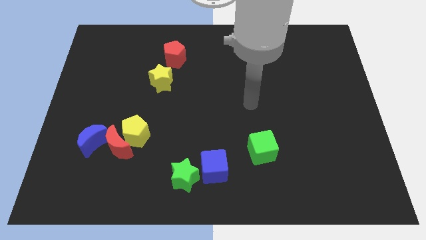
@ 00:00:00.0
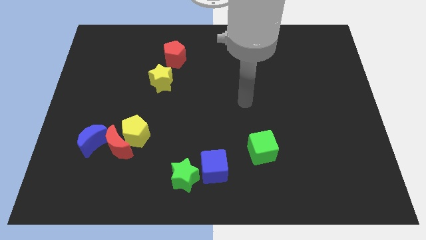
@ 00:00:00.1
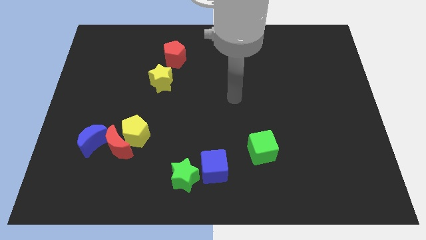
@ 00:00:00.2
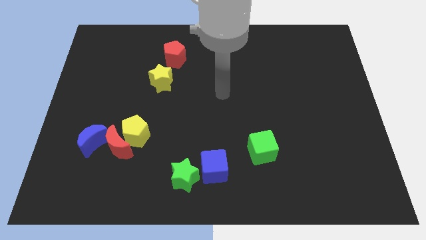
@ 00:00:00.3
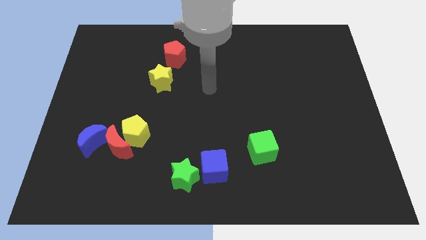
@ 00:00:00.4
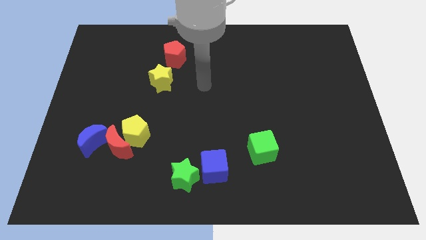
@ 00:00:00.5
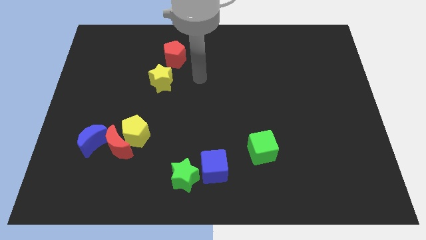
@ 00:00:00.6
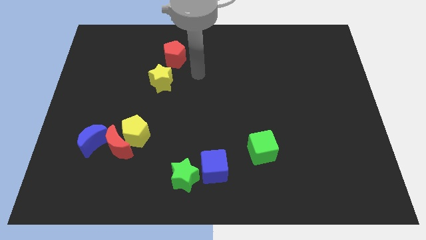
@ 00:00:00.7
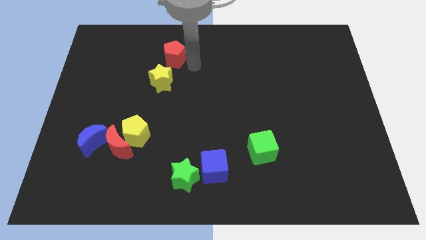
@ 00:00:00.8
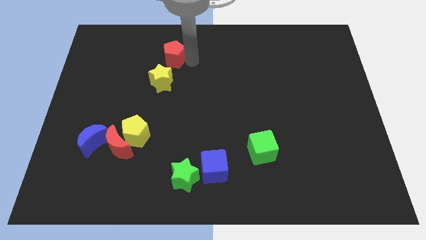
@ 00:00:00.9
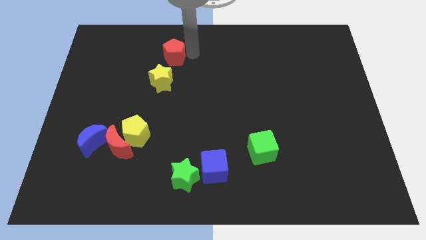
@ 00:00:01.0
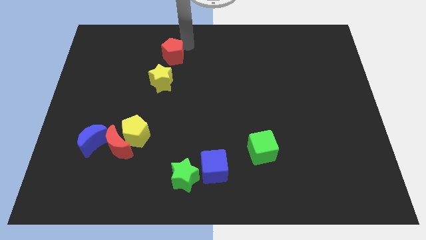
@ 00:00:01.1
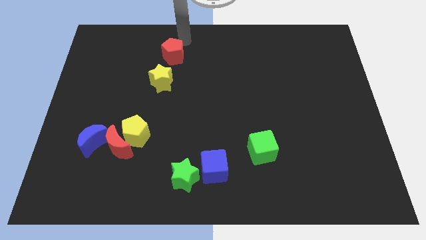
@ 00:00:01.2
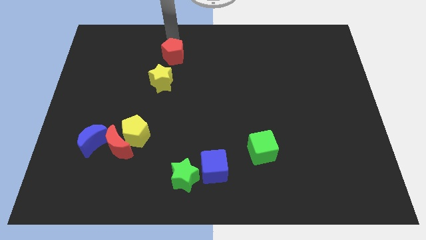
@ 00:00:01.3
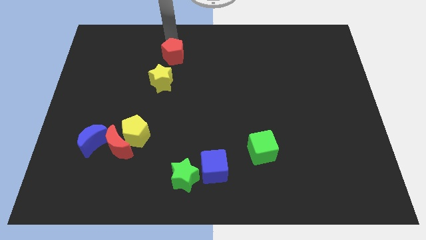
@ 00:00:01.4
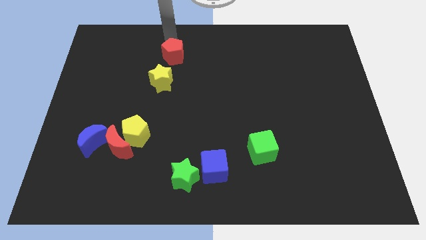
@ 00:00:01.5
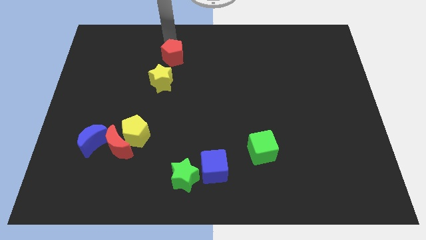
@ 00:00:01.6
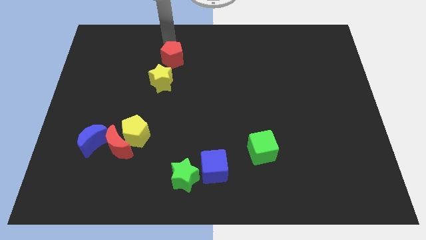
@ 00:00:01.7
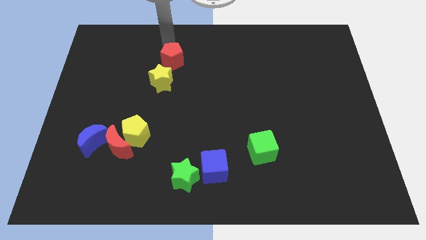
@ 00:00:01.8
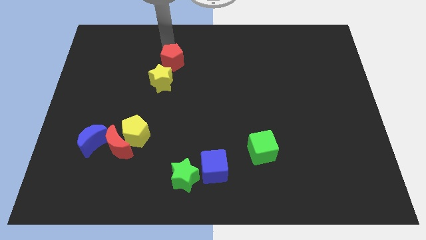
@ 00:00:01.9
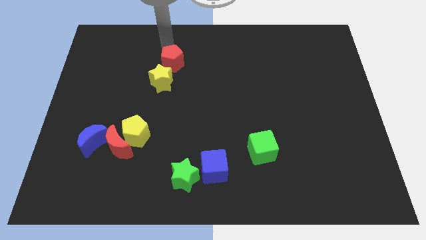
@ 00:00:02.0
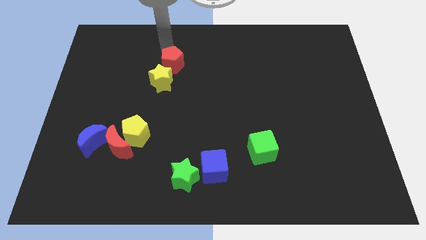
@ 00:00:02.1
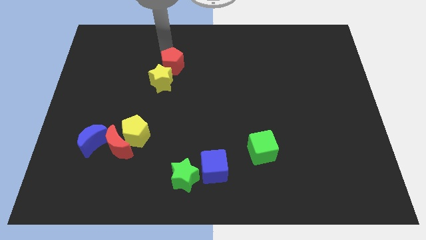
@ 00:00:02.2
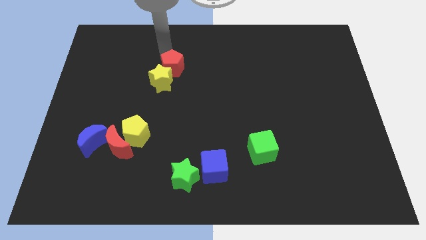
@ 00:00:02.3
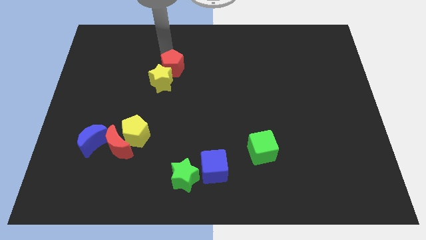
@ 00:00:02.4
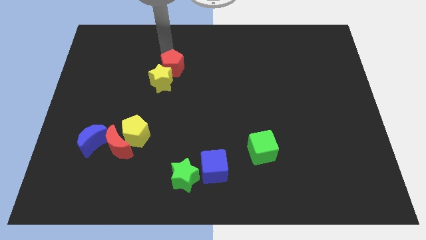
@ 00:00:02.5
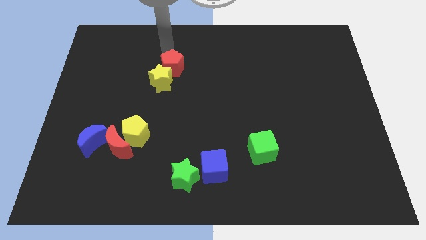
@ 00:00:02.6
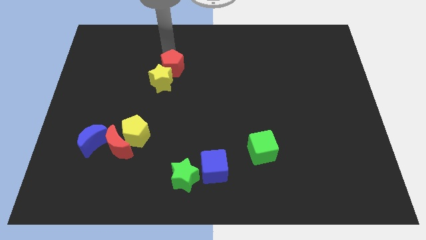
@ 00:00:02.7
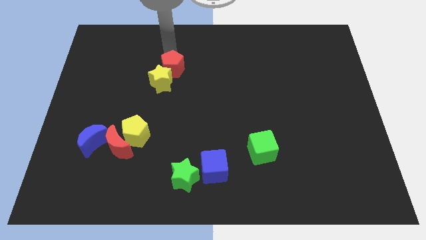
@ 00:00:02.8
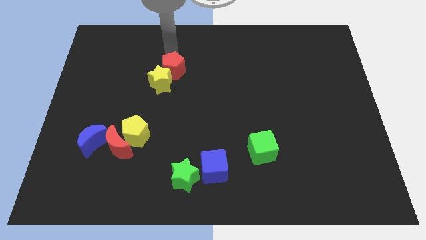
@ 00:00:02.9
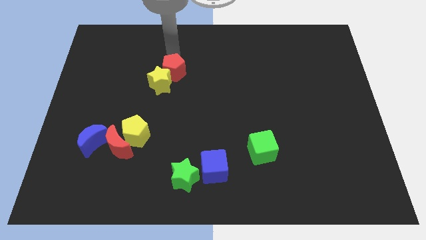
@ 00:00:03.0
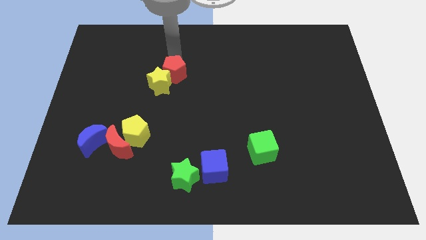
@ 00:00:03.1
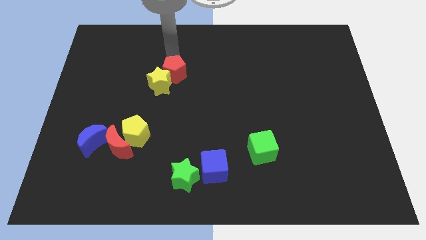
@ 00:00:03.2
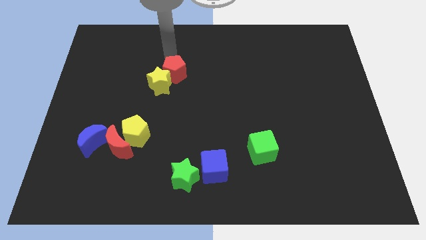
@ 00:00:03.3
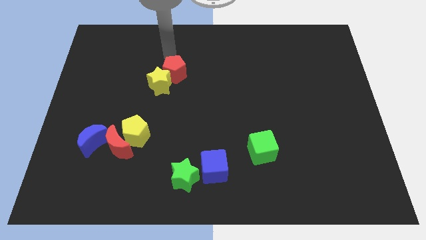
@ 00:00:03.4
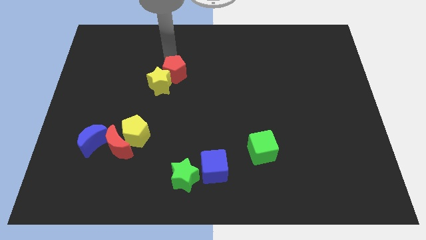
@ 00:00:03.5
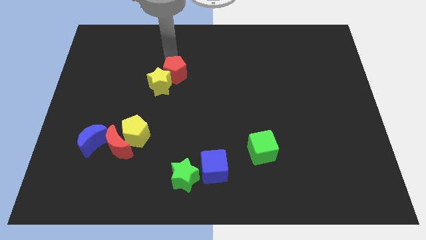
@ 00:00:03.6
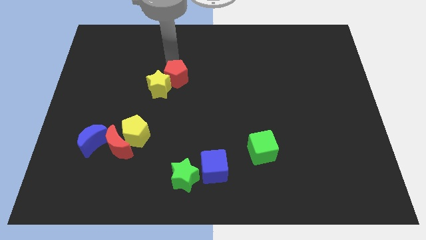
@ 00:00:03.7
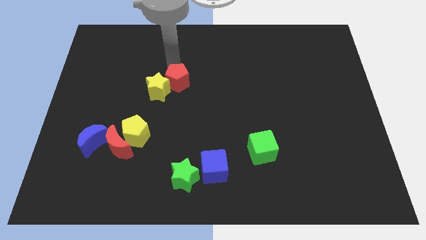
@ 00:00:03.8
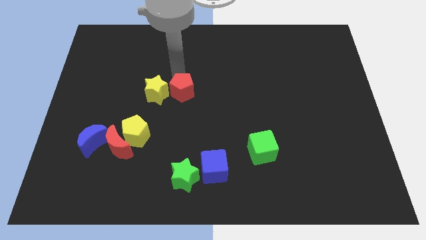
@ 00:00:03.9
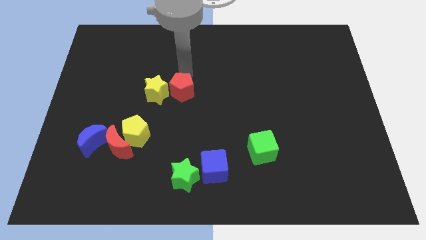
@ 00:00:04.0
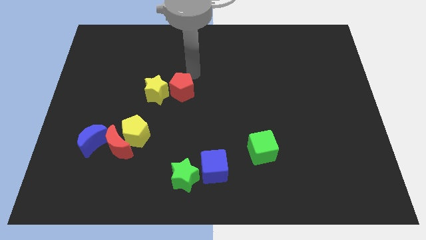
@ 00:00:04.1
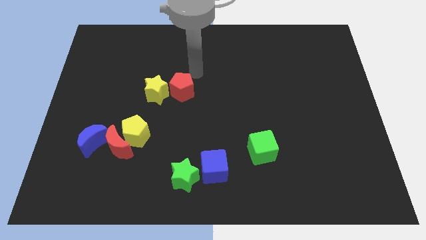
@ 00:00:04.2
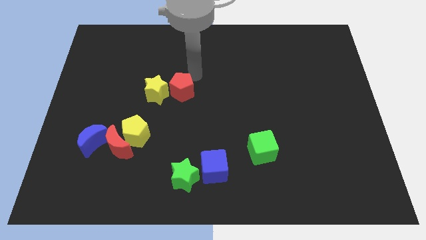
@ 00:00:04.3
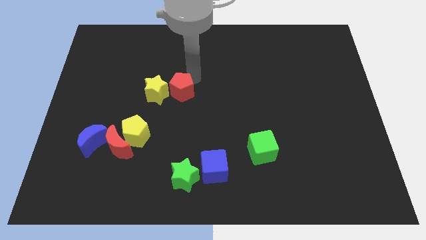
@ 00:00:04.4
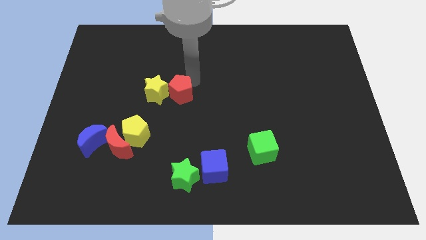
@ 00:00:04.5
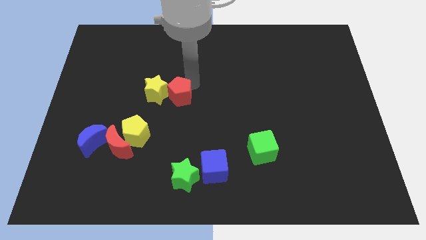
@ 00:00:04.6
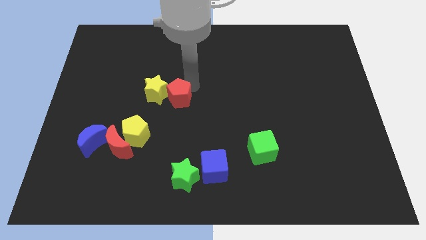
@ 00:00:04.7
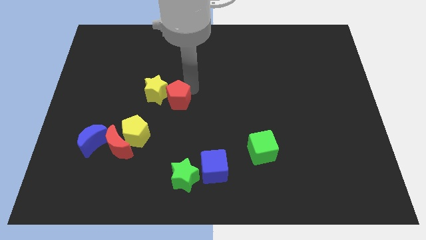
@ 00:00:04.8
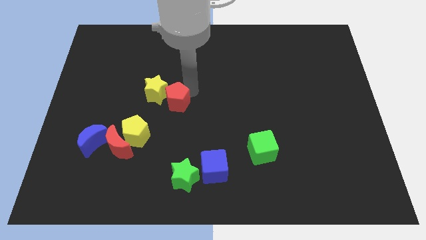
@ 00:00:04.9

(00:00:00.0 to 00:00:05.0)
push the red pentagon diagonally up and to the right of the yellow pentagon

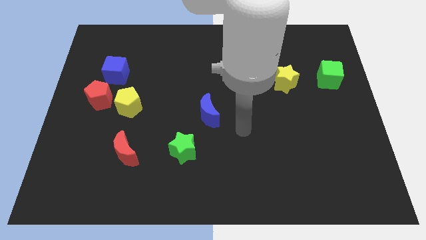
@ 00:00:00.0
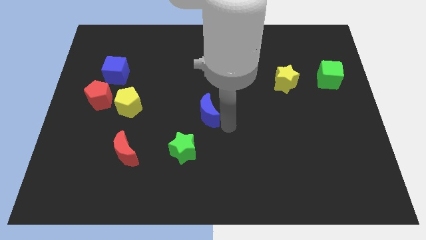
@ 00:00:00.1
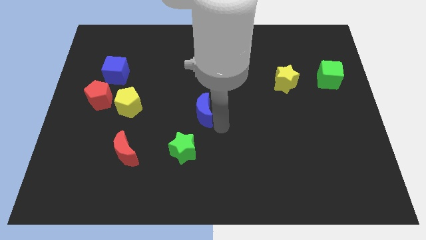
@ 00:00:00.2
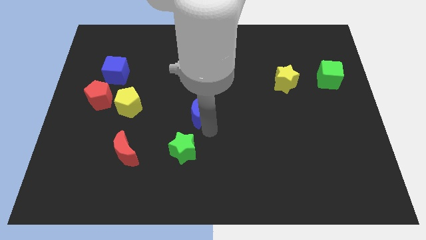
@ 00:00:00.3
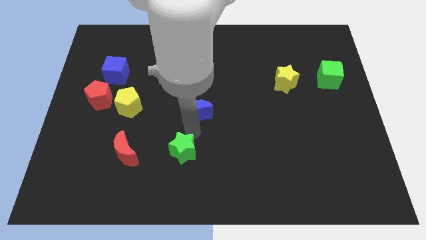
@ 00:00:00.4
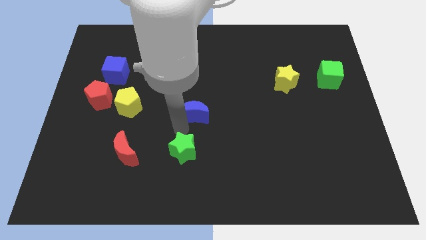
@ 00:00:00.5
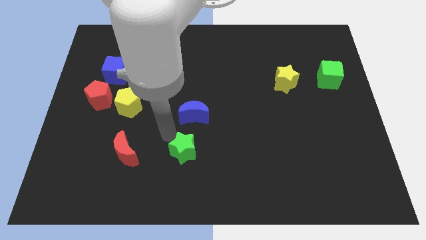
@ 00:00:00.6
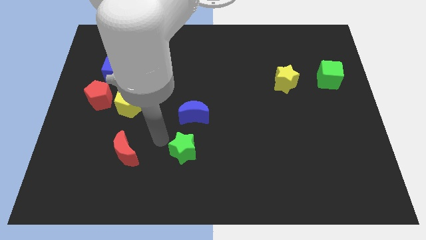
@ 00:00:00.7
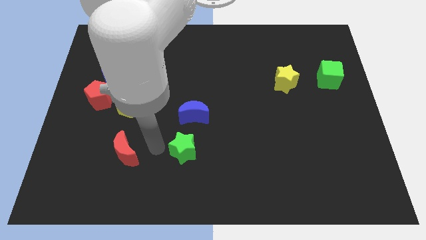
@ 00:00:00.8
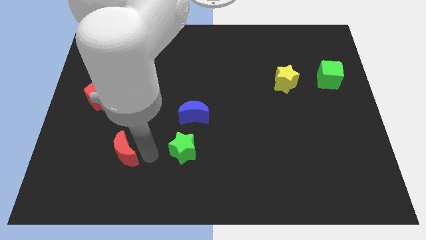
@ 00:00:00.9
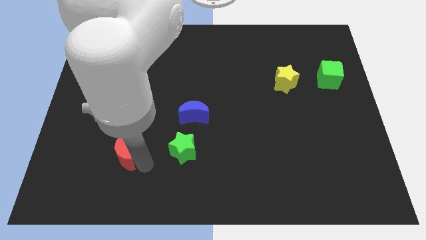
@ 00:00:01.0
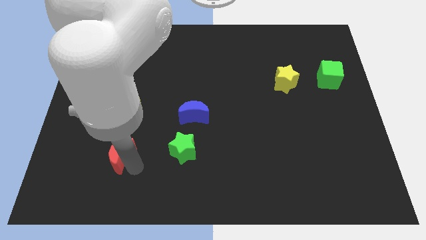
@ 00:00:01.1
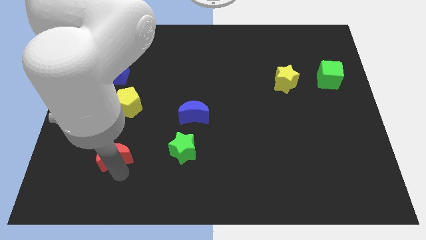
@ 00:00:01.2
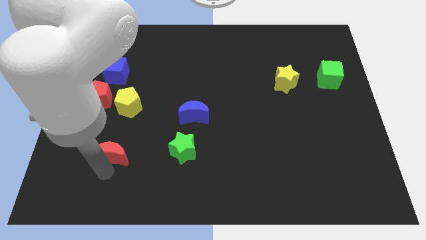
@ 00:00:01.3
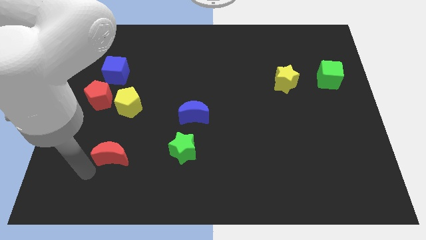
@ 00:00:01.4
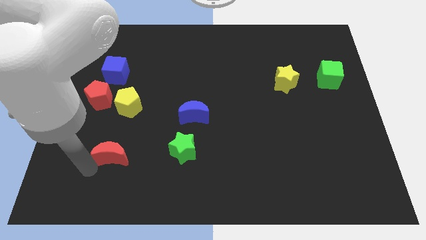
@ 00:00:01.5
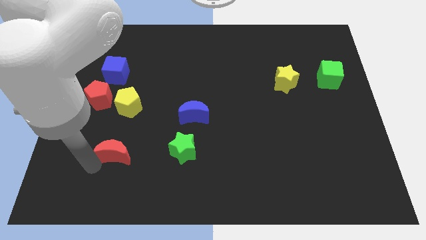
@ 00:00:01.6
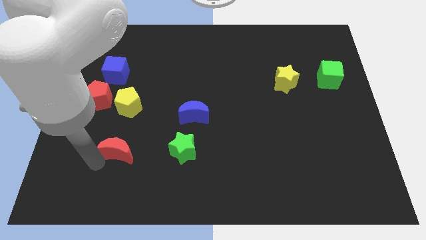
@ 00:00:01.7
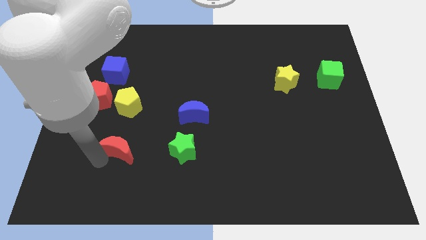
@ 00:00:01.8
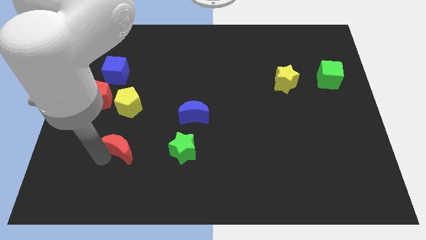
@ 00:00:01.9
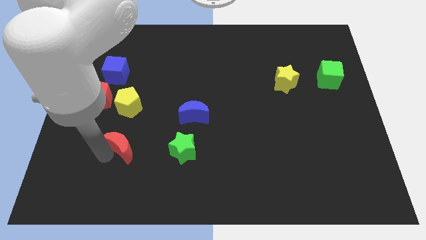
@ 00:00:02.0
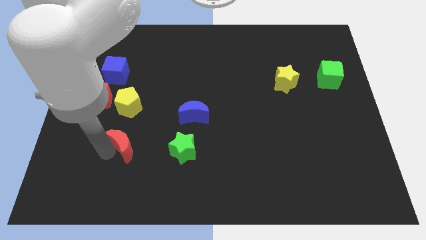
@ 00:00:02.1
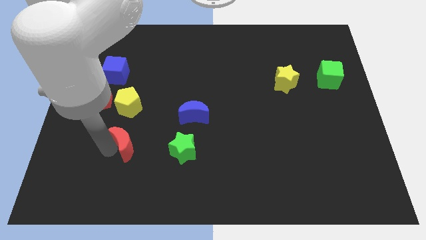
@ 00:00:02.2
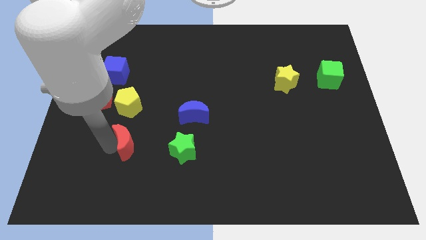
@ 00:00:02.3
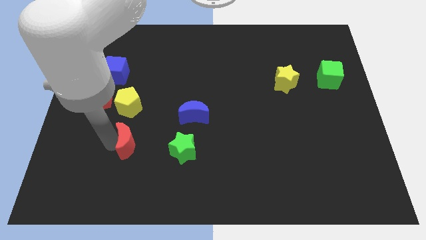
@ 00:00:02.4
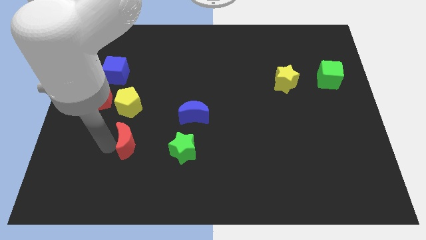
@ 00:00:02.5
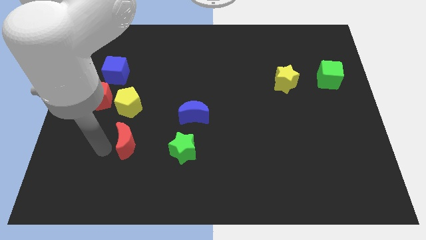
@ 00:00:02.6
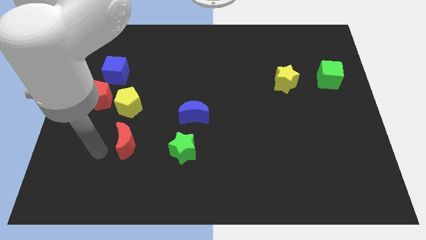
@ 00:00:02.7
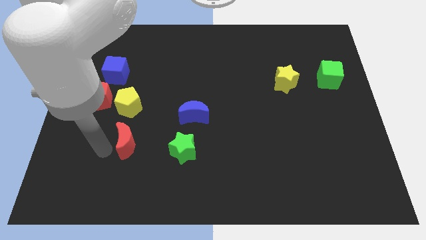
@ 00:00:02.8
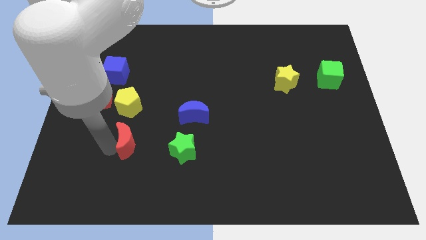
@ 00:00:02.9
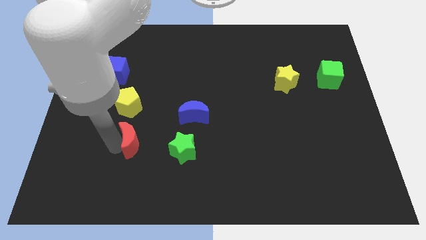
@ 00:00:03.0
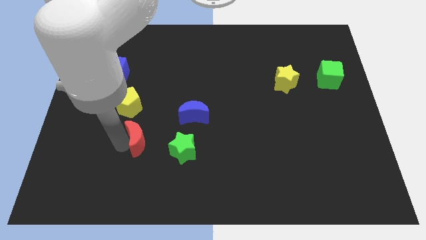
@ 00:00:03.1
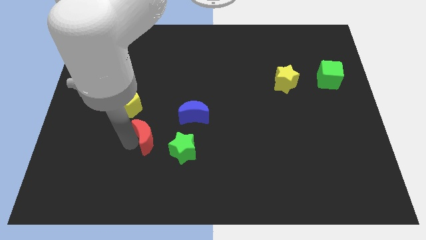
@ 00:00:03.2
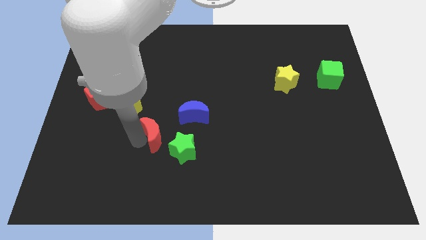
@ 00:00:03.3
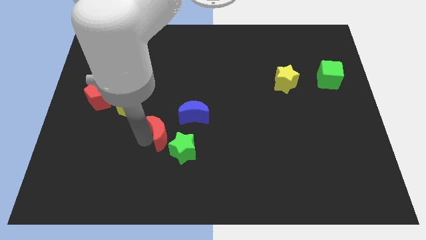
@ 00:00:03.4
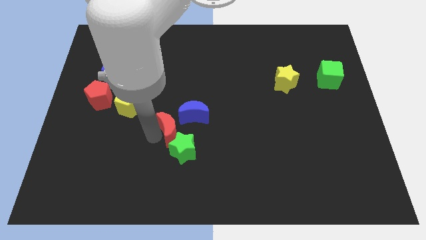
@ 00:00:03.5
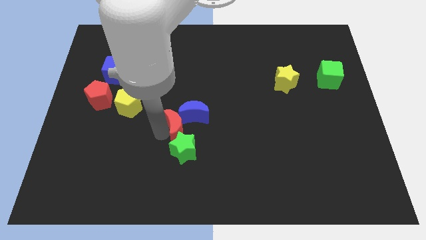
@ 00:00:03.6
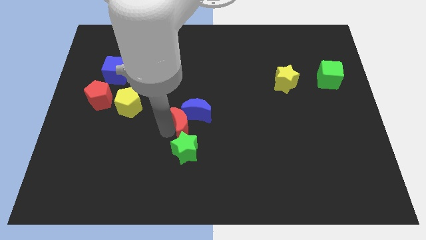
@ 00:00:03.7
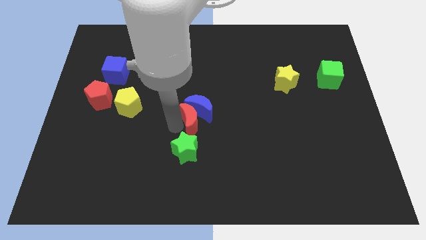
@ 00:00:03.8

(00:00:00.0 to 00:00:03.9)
push the red moon to the bottom right of the blue moon
